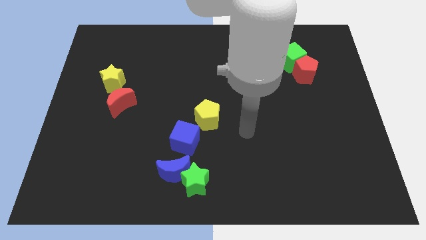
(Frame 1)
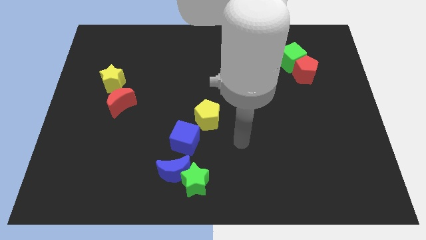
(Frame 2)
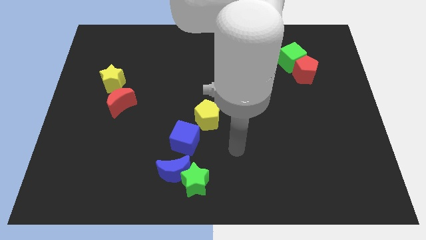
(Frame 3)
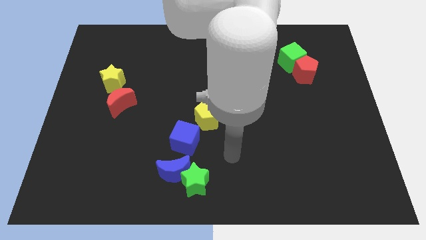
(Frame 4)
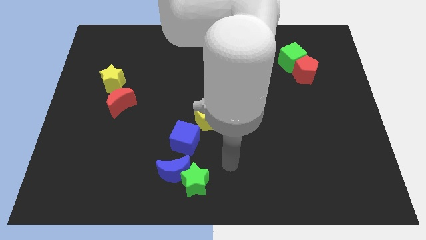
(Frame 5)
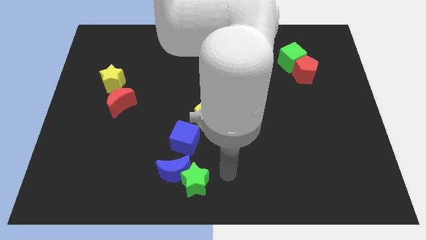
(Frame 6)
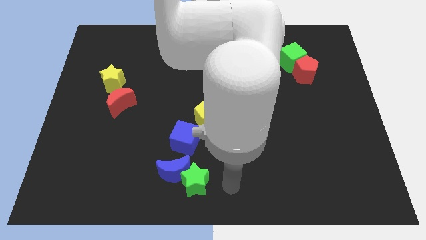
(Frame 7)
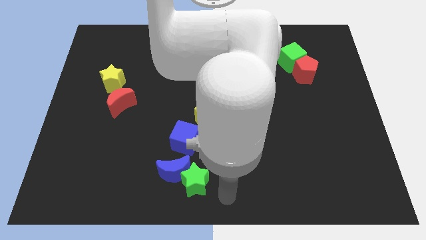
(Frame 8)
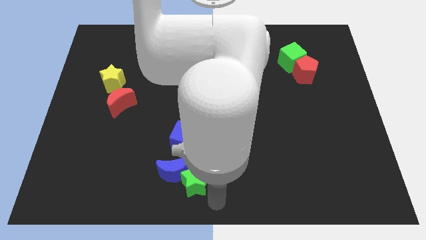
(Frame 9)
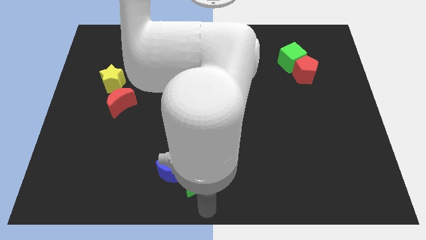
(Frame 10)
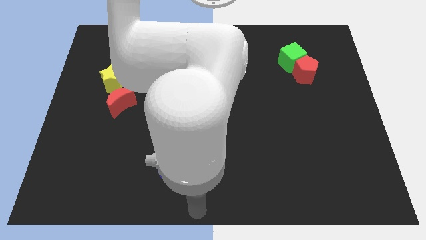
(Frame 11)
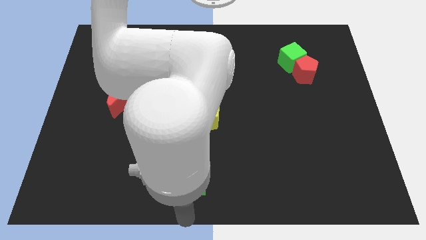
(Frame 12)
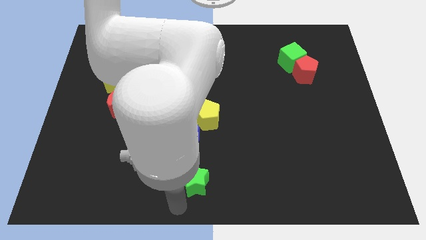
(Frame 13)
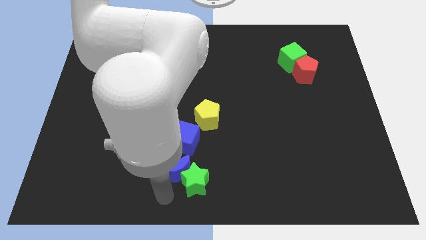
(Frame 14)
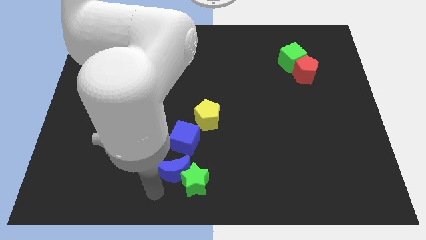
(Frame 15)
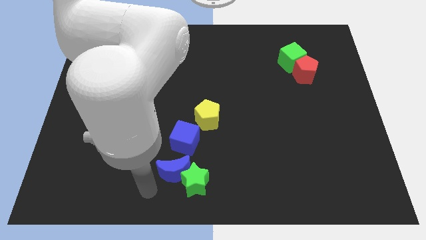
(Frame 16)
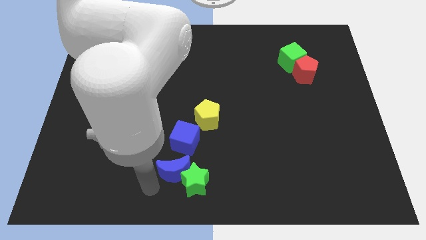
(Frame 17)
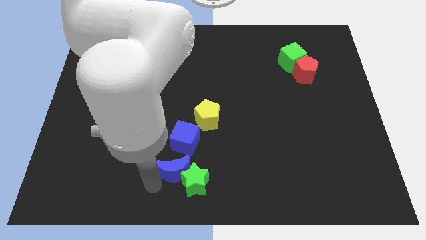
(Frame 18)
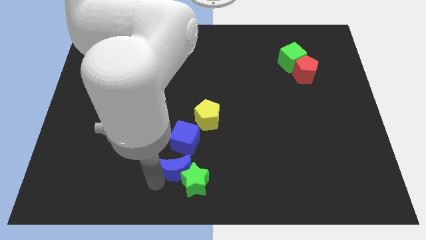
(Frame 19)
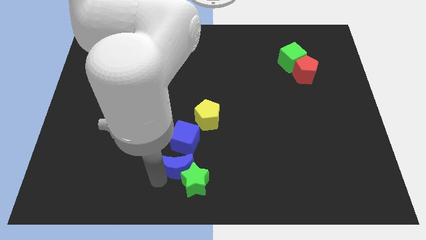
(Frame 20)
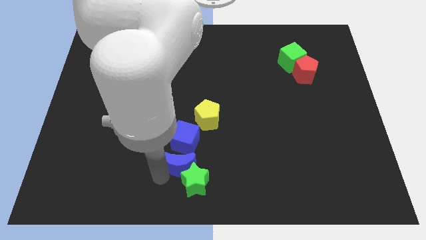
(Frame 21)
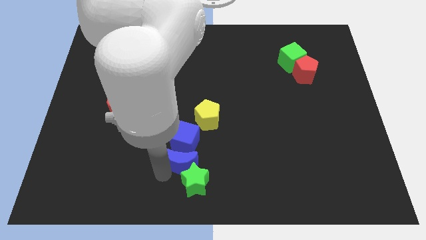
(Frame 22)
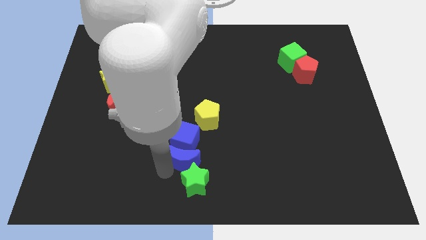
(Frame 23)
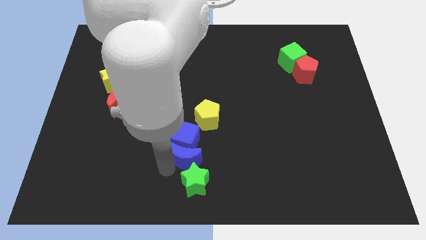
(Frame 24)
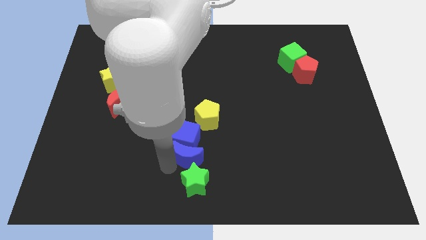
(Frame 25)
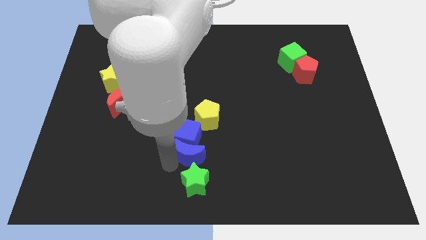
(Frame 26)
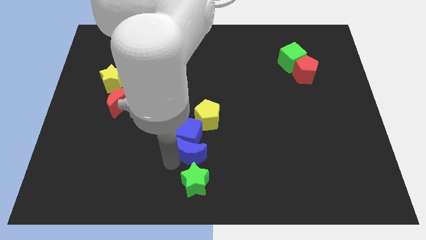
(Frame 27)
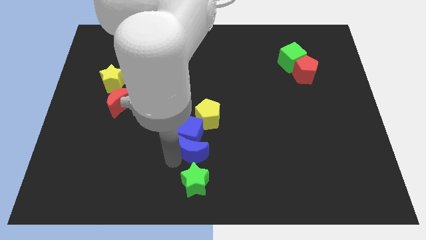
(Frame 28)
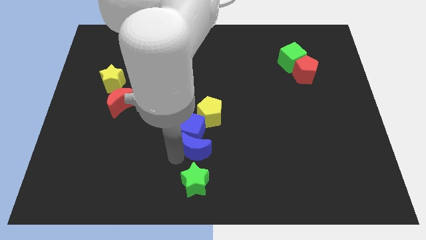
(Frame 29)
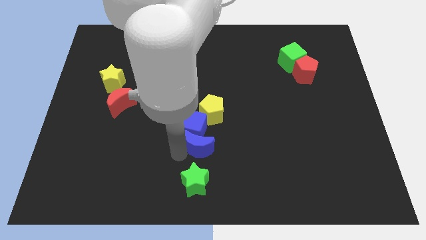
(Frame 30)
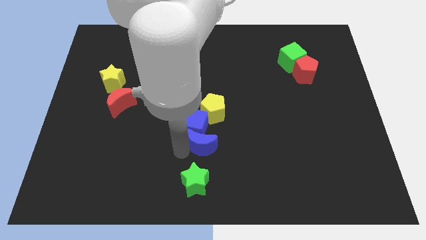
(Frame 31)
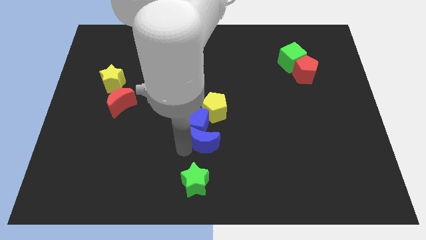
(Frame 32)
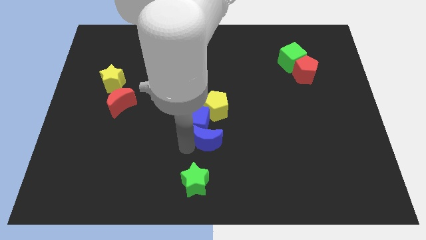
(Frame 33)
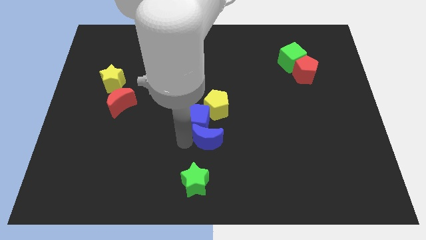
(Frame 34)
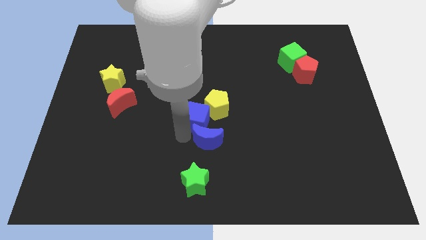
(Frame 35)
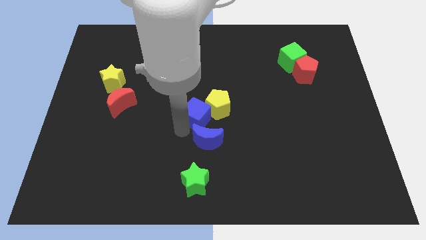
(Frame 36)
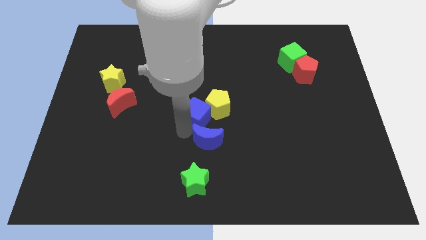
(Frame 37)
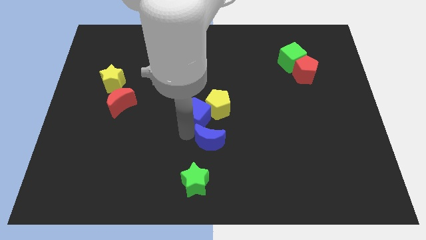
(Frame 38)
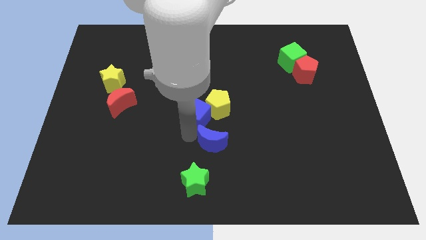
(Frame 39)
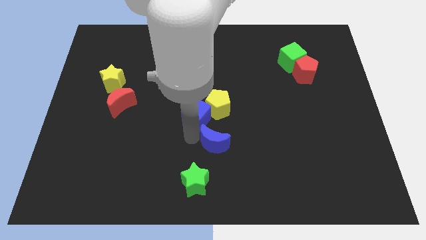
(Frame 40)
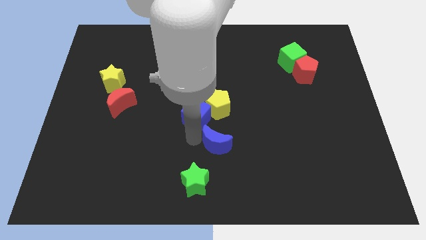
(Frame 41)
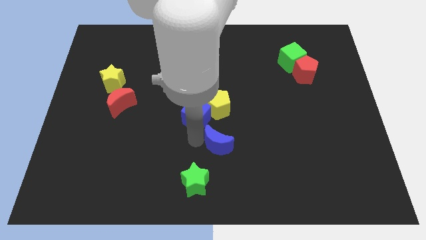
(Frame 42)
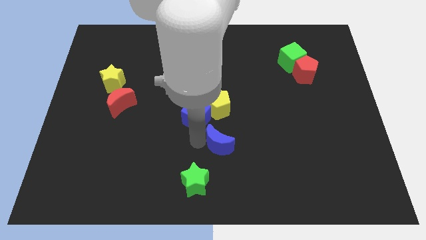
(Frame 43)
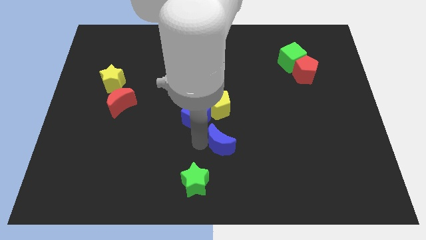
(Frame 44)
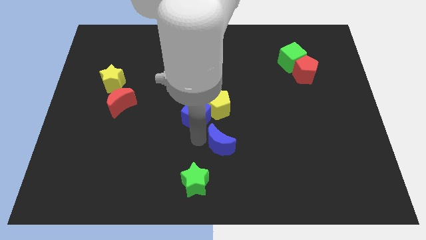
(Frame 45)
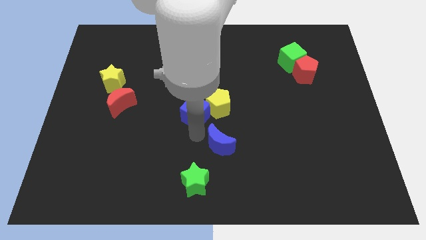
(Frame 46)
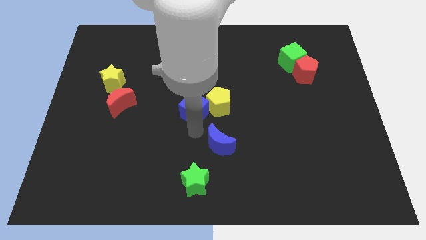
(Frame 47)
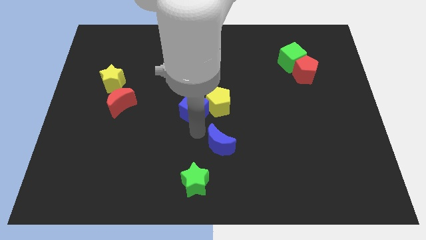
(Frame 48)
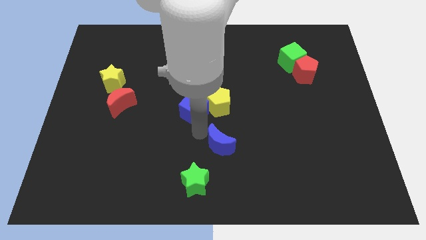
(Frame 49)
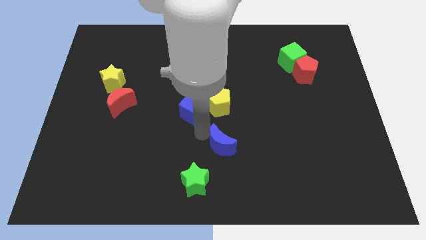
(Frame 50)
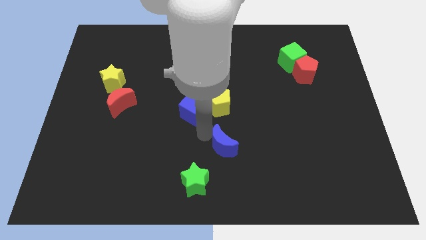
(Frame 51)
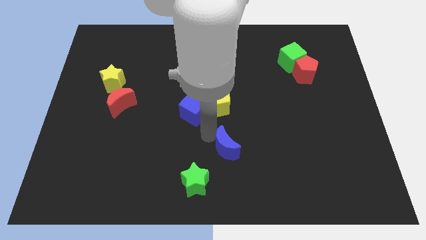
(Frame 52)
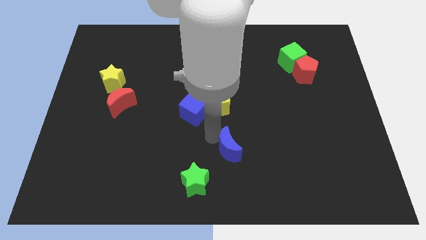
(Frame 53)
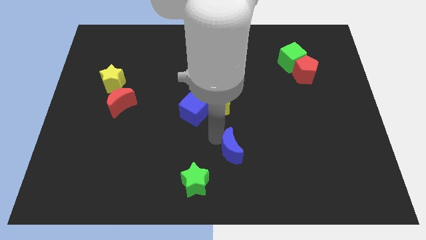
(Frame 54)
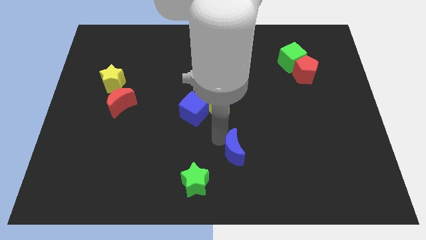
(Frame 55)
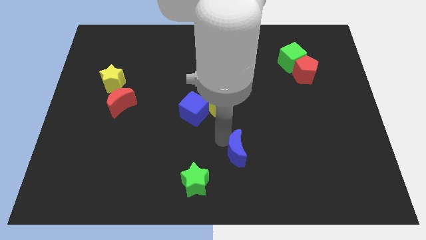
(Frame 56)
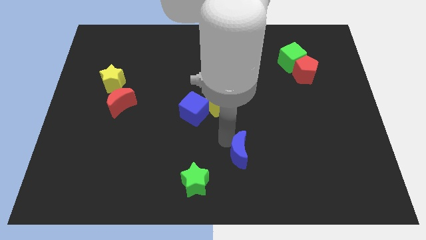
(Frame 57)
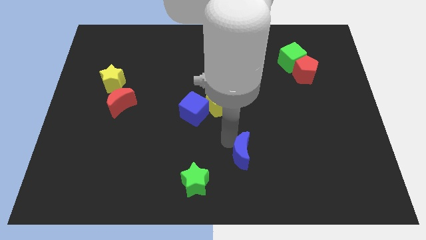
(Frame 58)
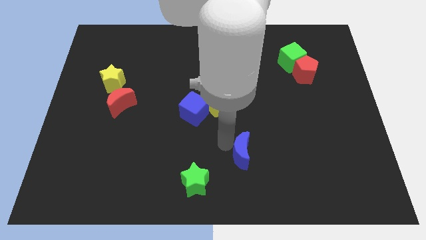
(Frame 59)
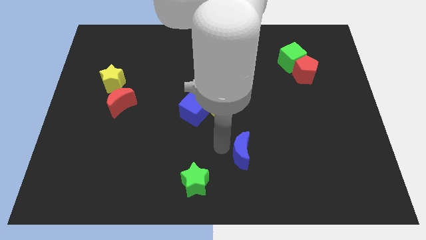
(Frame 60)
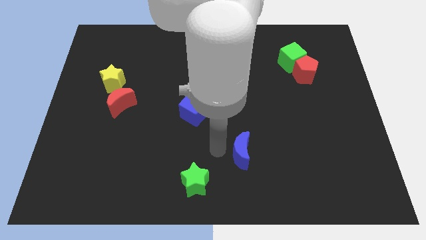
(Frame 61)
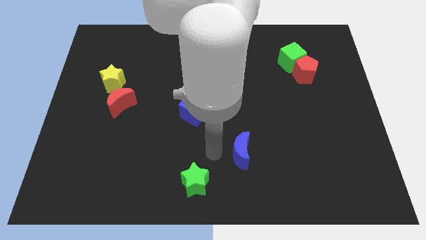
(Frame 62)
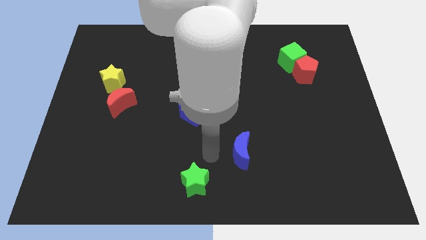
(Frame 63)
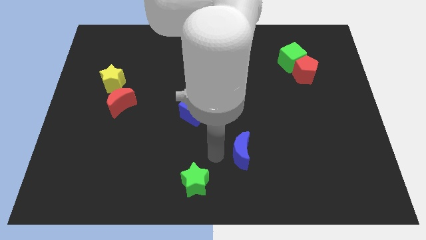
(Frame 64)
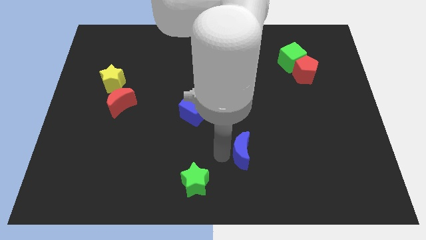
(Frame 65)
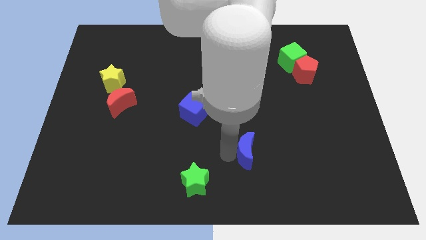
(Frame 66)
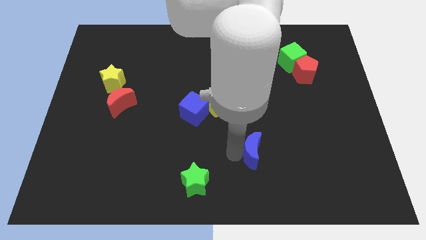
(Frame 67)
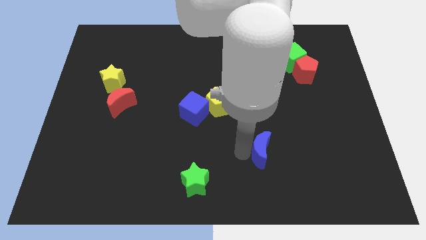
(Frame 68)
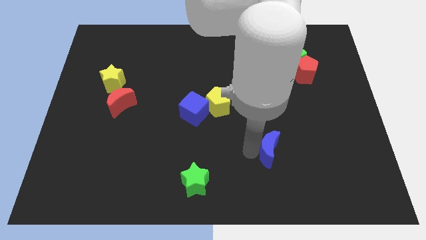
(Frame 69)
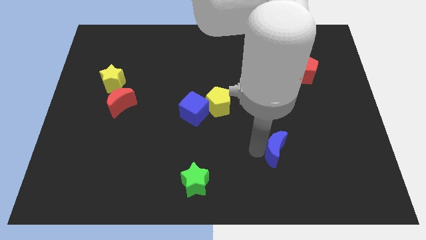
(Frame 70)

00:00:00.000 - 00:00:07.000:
move the blue moon to the right

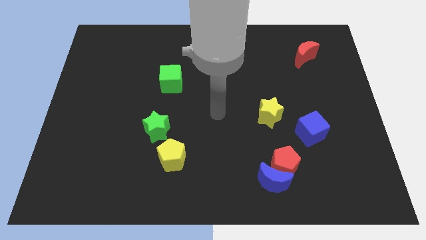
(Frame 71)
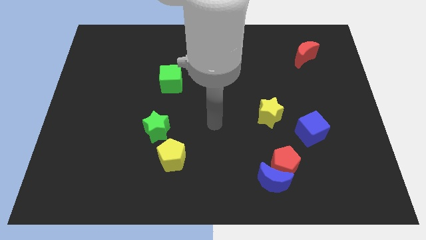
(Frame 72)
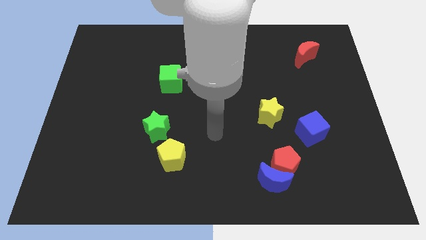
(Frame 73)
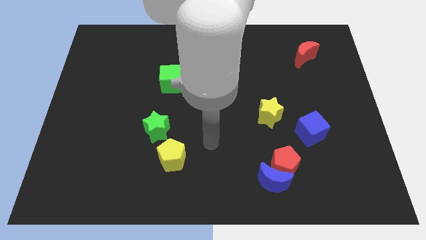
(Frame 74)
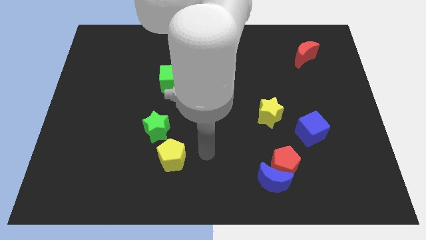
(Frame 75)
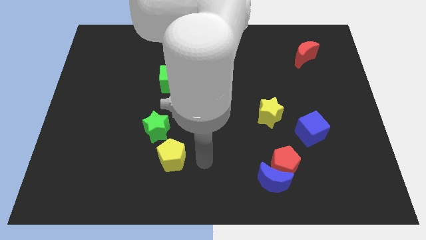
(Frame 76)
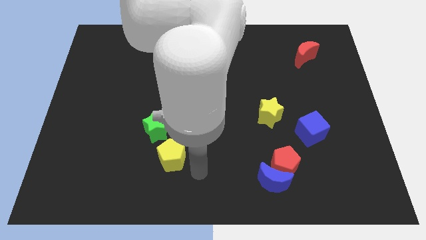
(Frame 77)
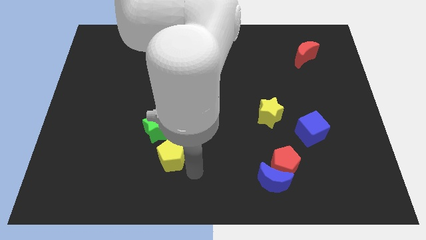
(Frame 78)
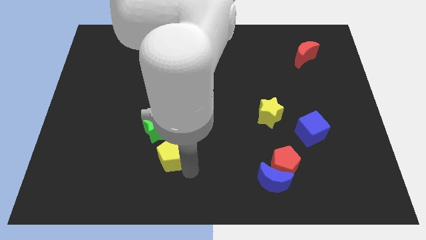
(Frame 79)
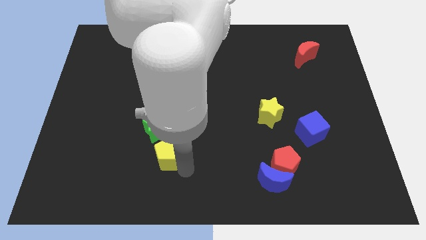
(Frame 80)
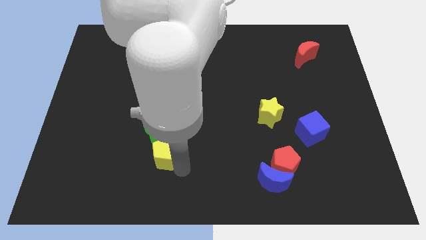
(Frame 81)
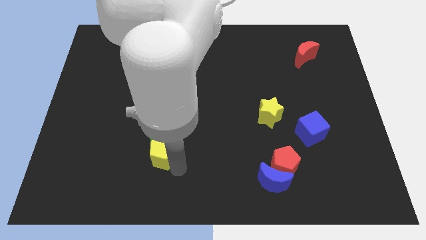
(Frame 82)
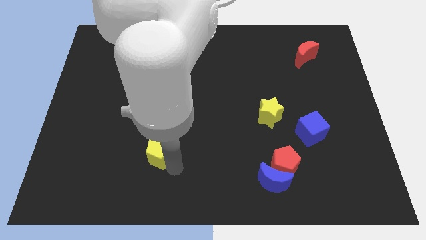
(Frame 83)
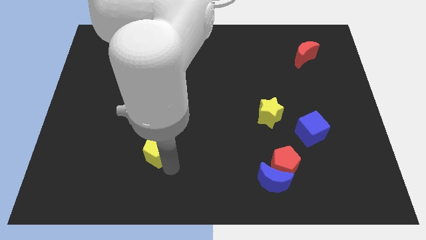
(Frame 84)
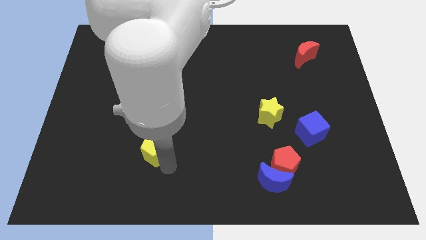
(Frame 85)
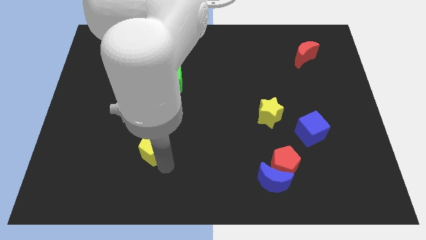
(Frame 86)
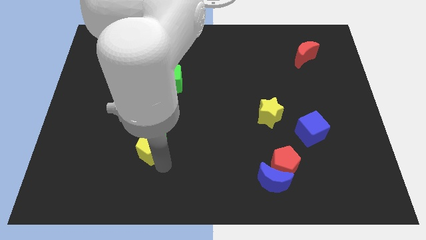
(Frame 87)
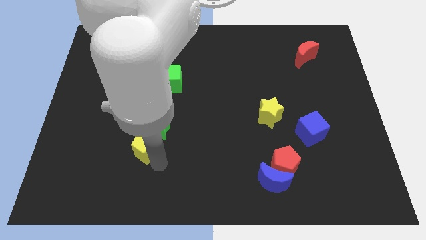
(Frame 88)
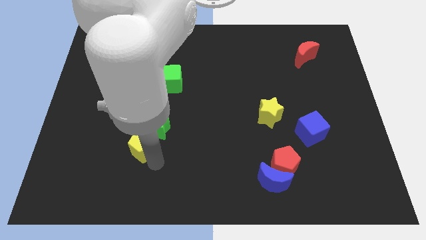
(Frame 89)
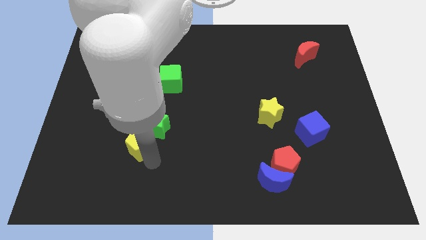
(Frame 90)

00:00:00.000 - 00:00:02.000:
push the yellow pentagon a bit diagonally up and to the left
